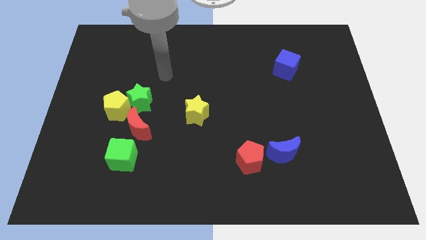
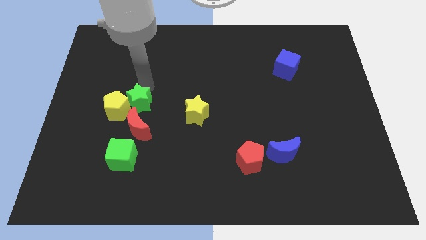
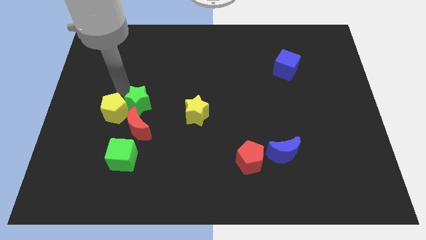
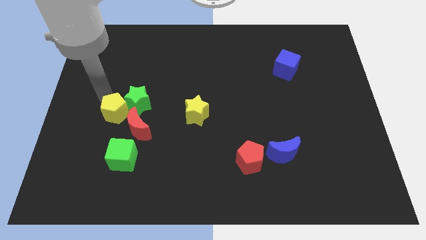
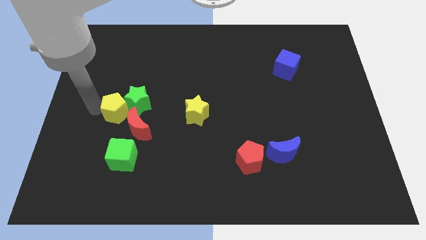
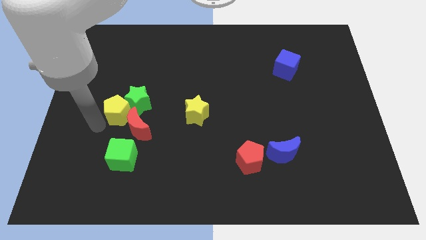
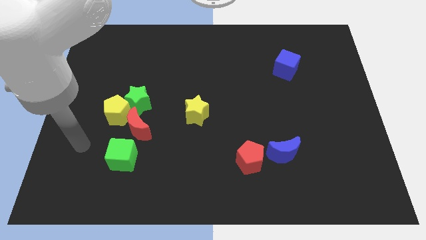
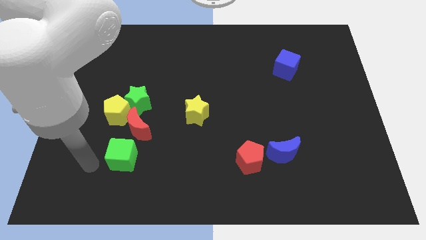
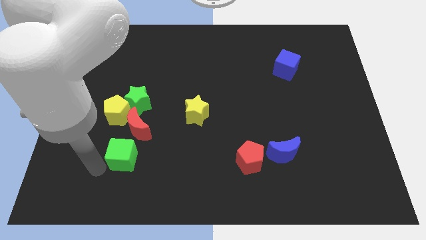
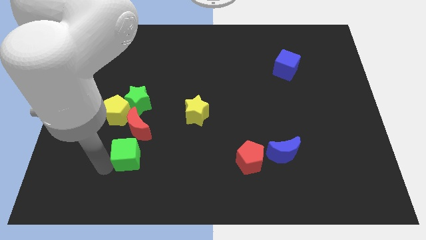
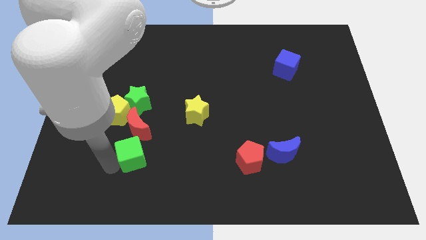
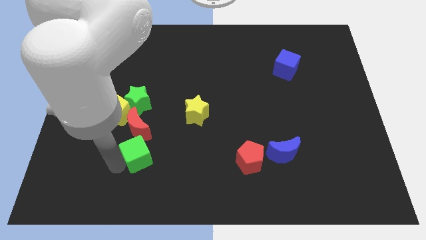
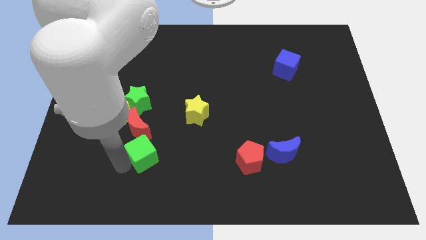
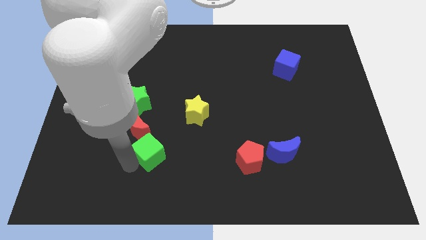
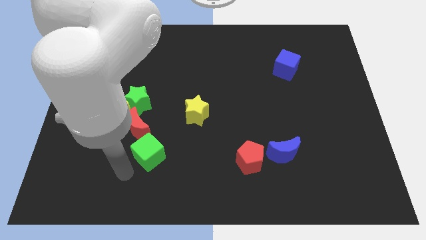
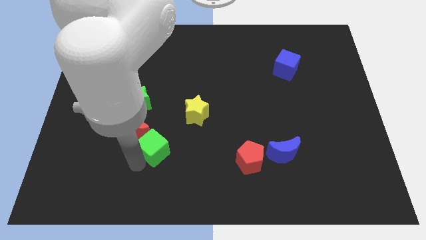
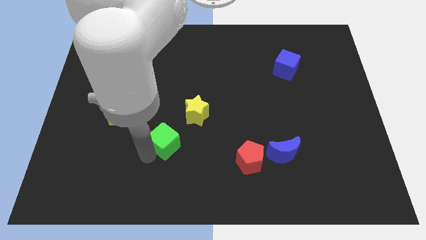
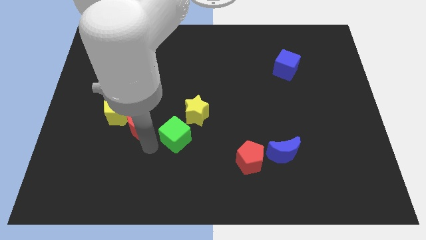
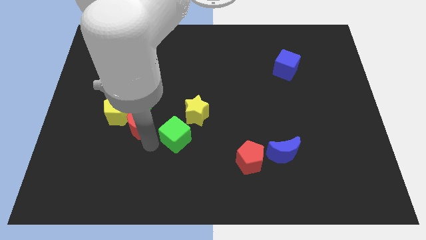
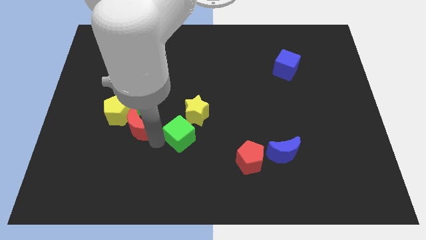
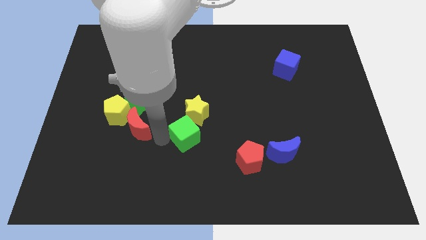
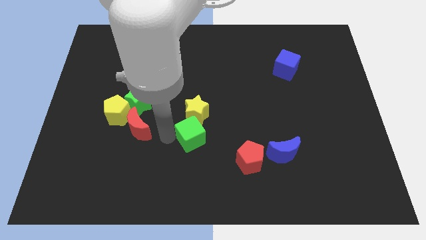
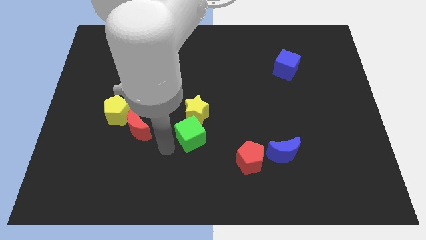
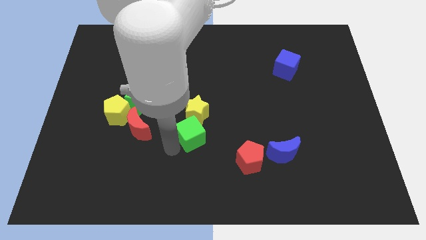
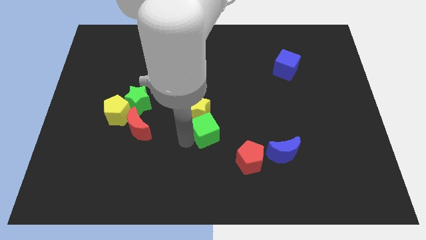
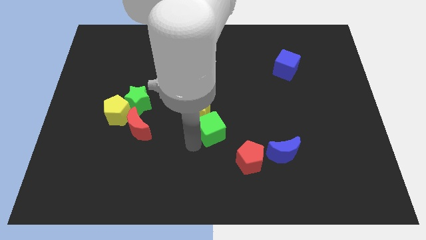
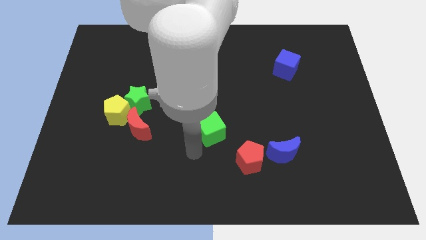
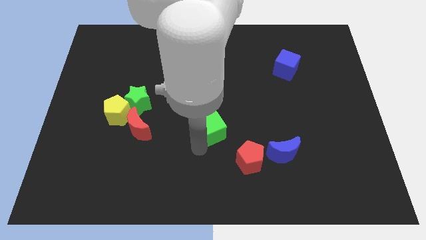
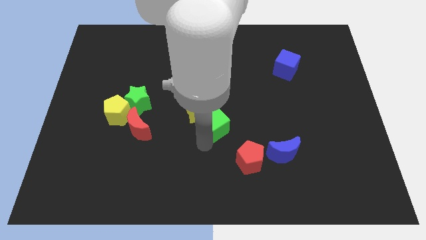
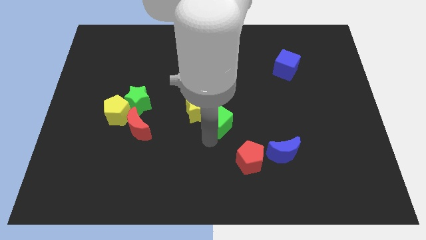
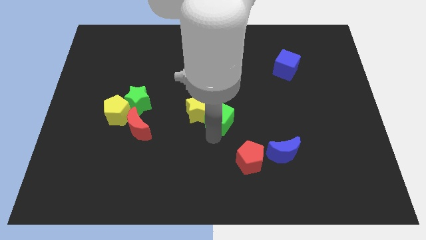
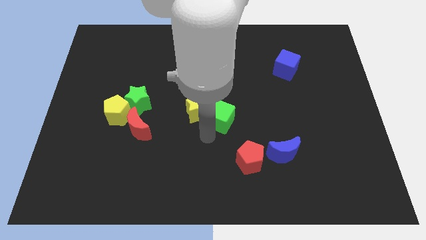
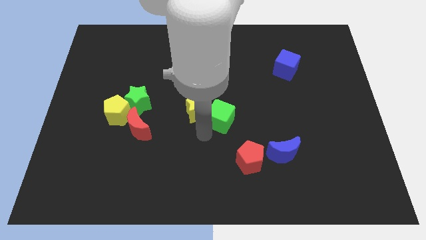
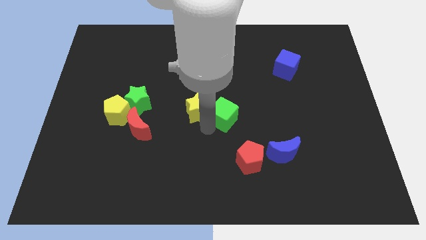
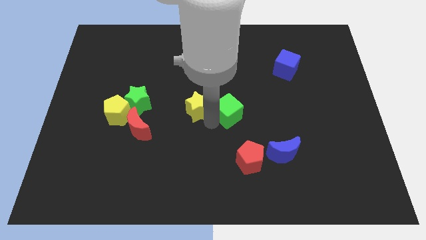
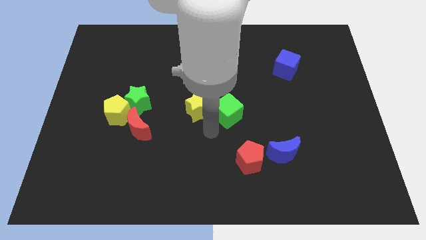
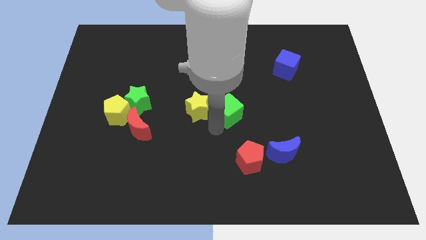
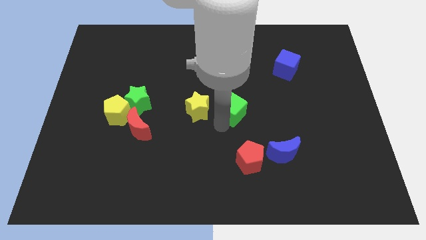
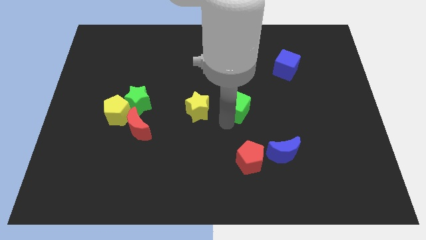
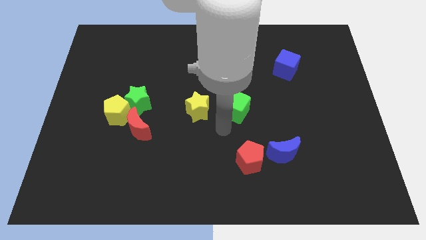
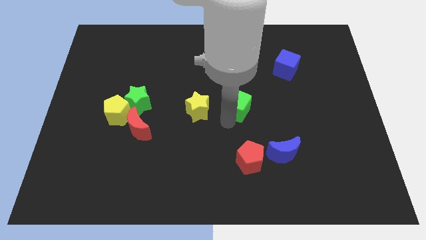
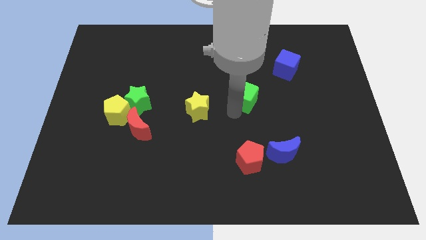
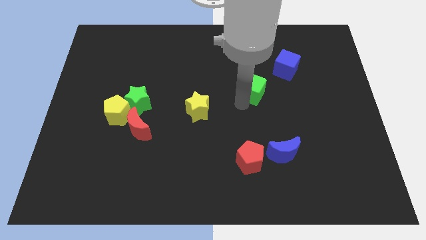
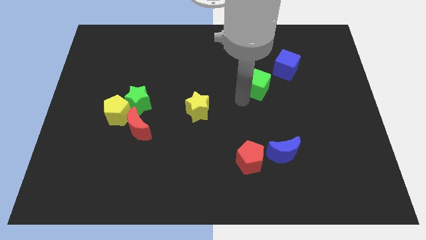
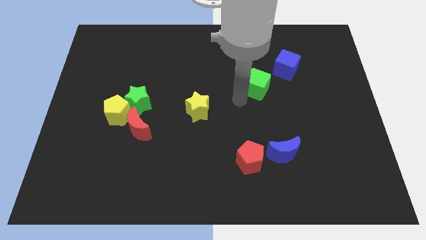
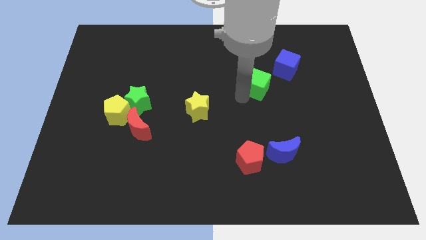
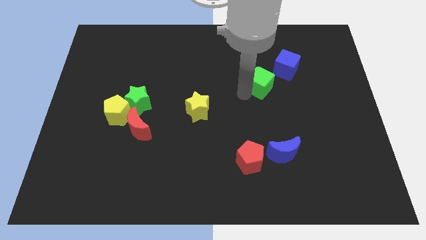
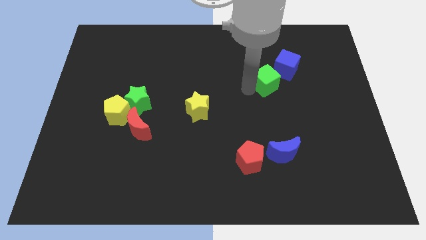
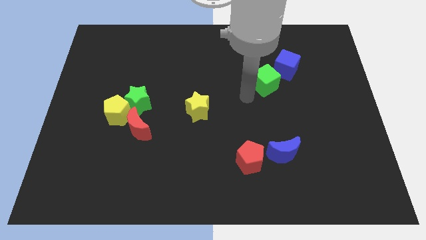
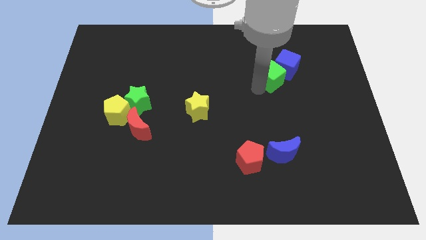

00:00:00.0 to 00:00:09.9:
push the green cube close to the blue cube

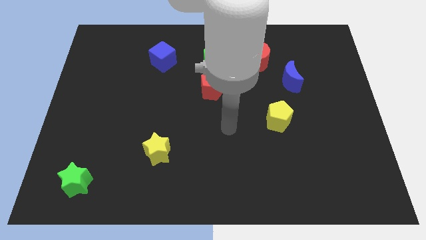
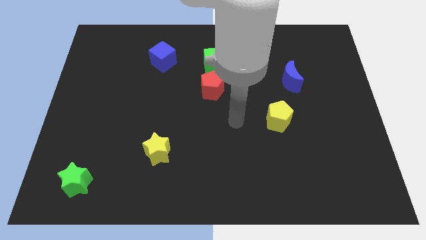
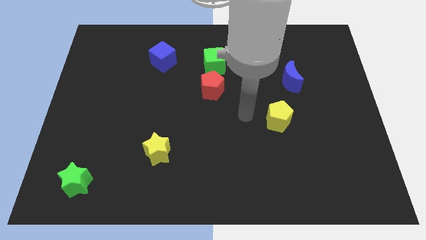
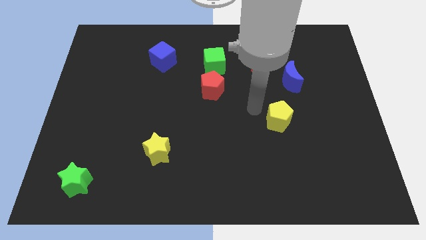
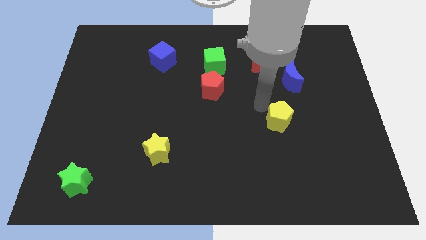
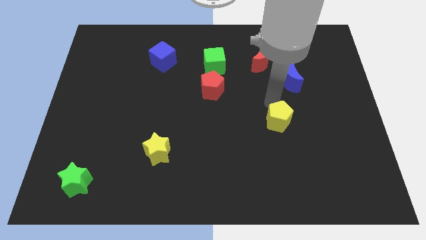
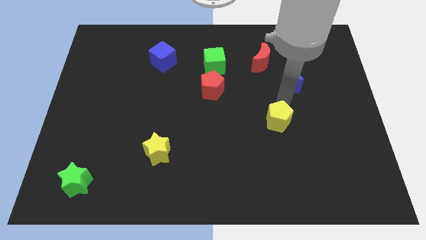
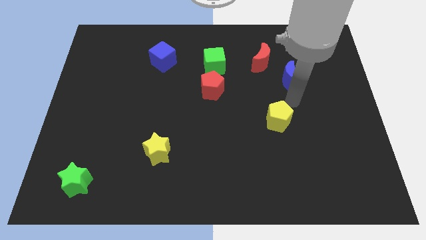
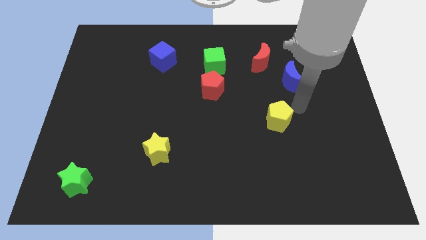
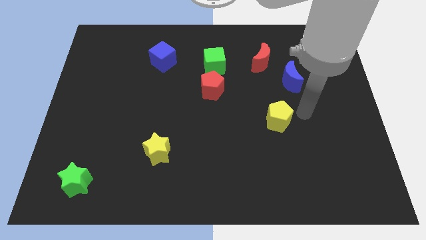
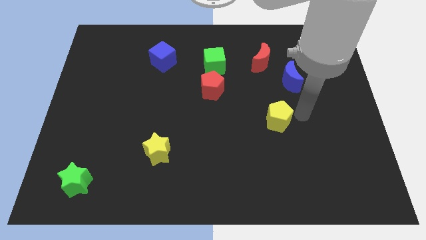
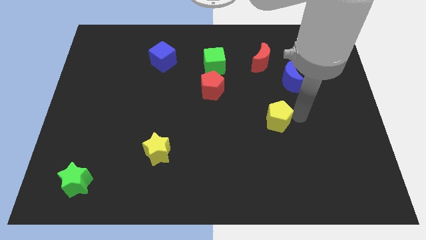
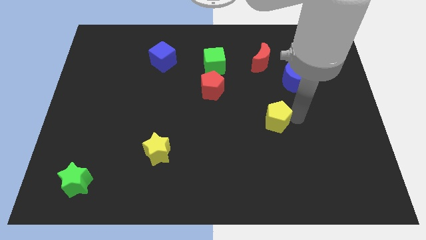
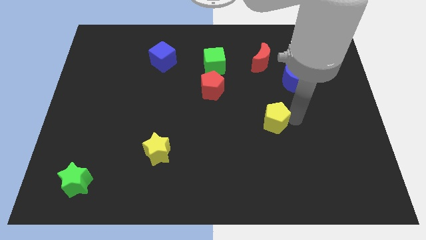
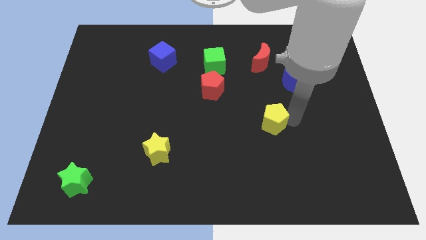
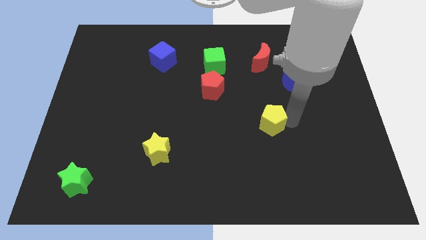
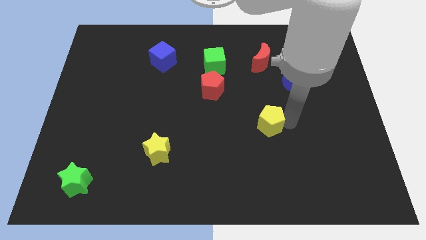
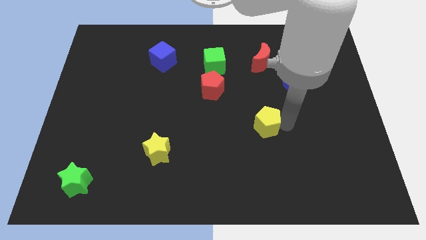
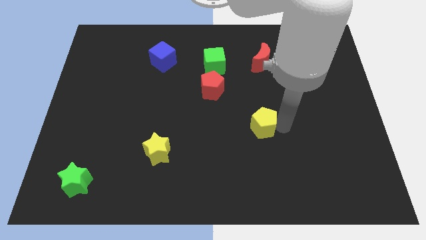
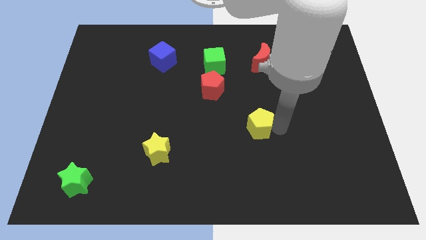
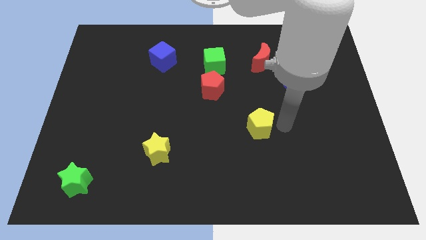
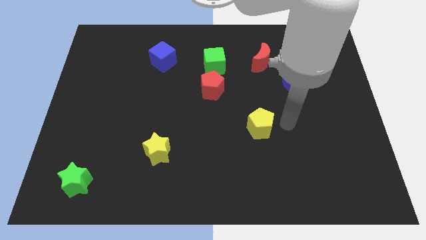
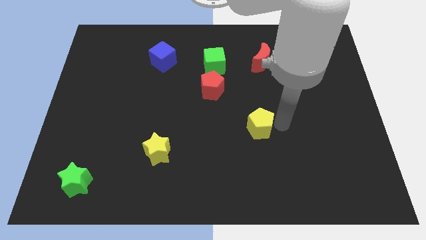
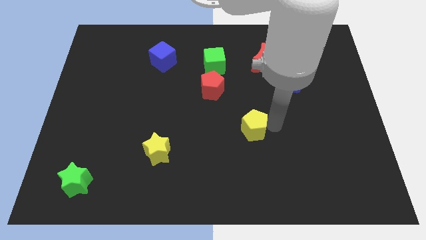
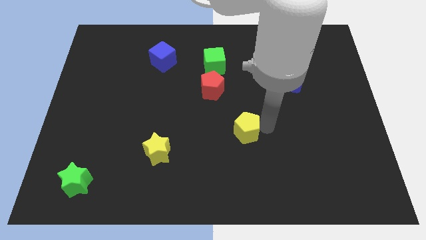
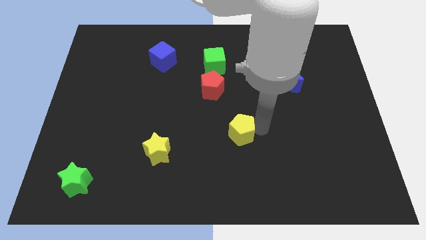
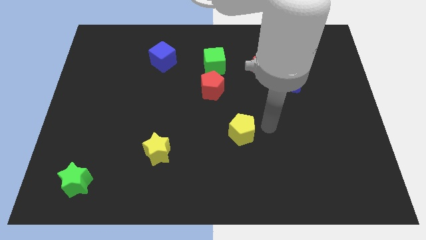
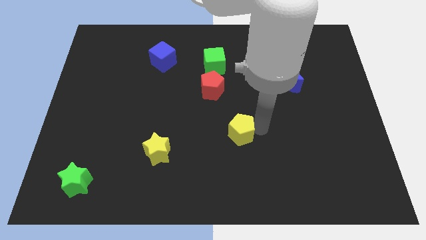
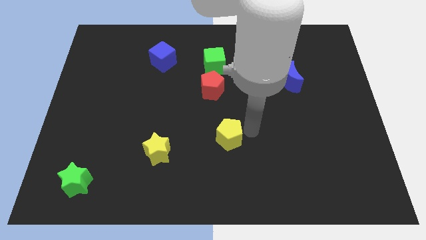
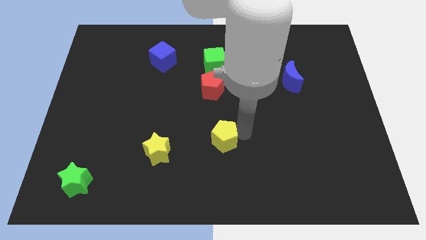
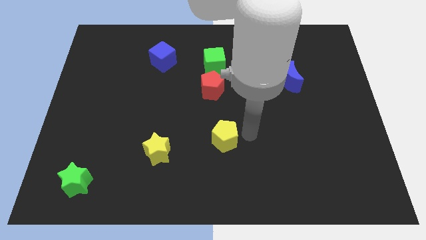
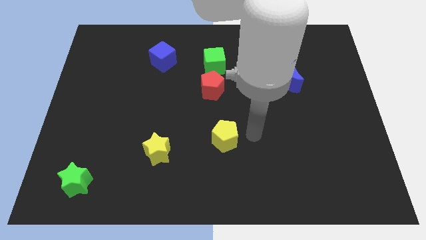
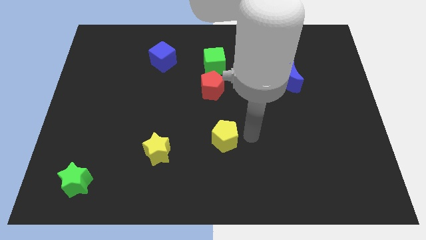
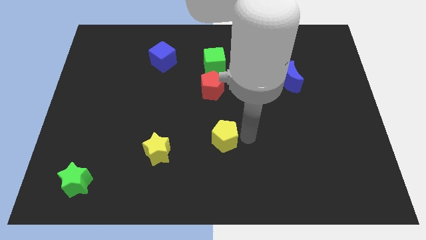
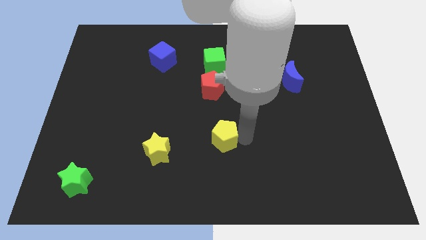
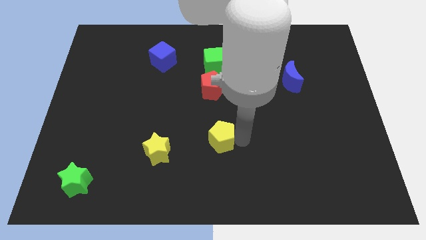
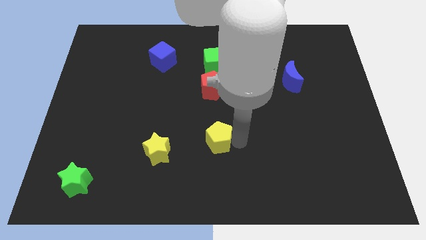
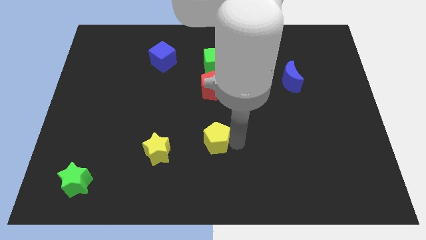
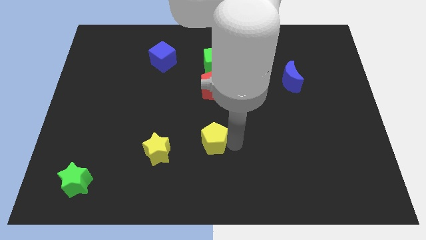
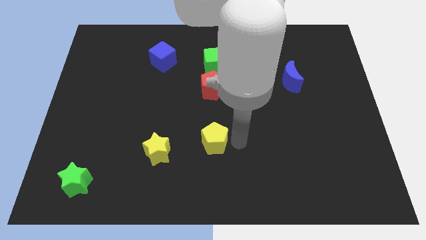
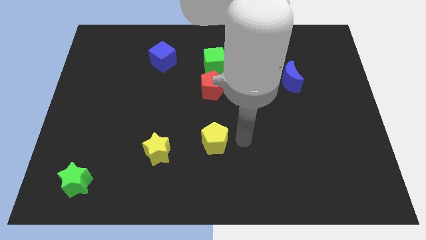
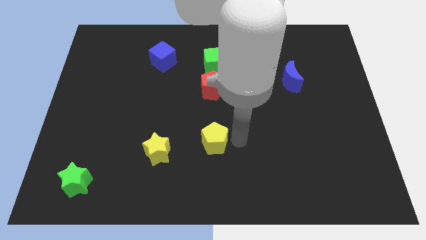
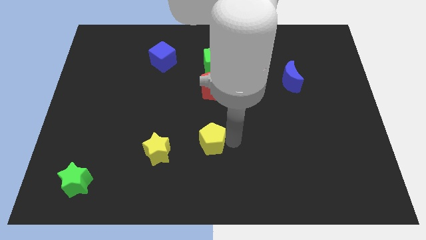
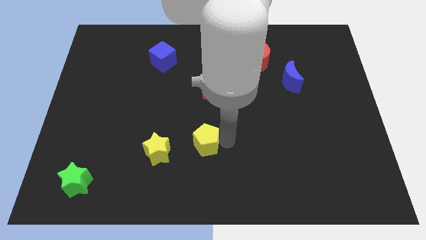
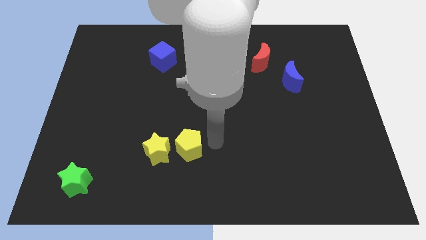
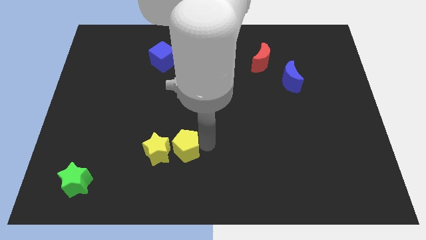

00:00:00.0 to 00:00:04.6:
put the yellow pentagon close to the yellow star
